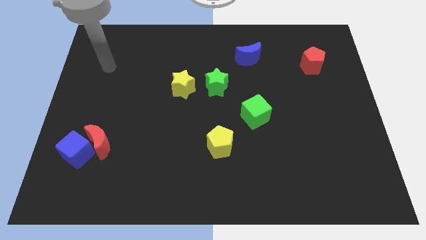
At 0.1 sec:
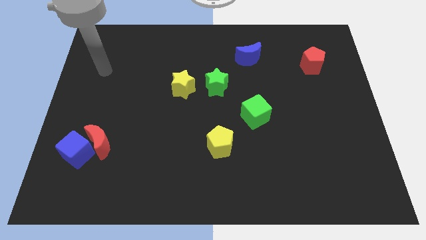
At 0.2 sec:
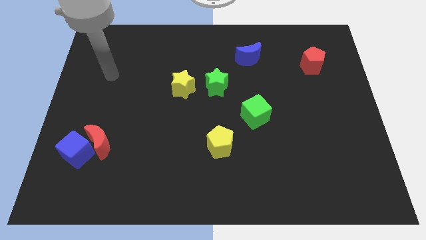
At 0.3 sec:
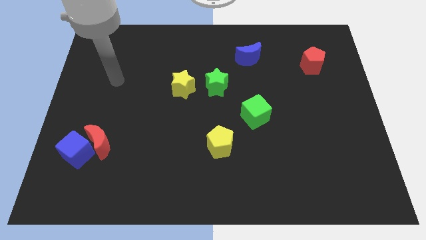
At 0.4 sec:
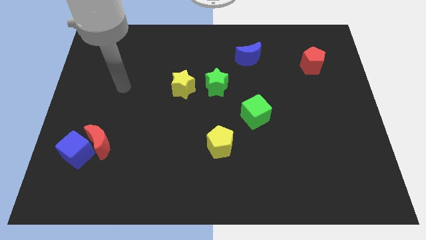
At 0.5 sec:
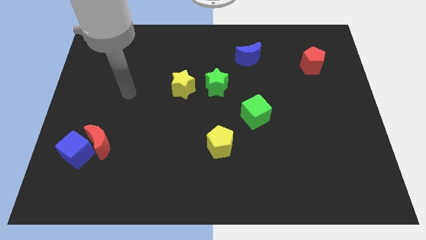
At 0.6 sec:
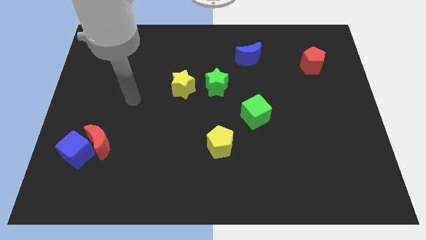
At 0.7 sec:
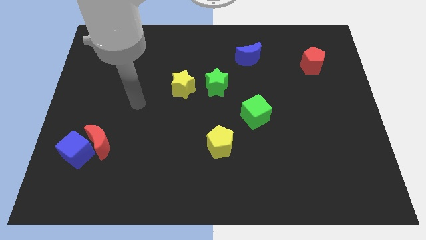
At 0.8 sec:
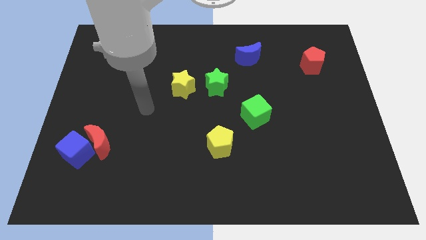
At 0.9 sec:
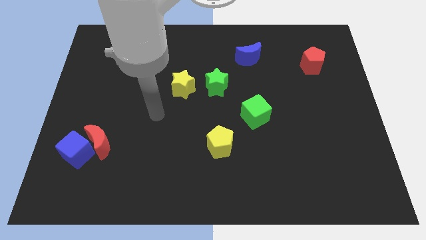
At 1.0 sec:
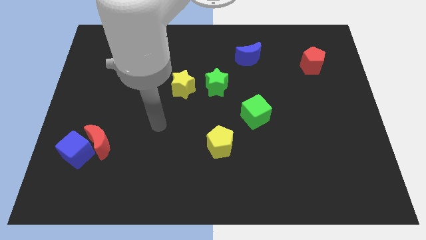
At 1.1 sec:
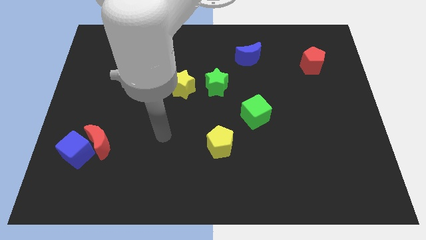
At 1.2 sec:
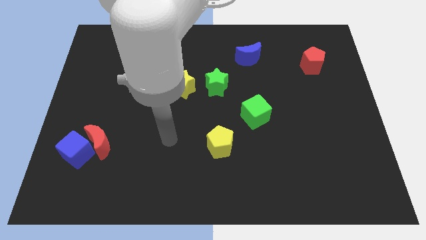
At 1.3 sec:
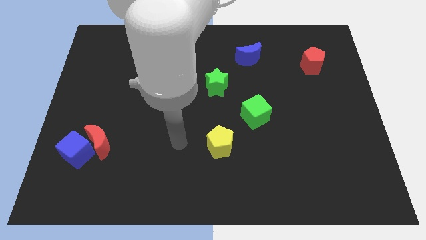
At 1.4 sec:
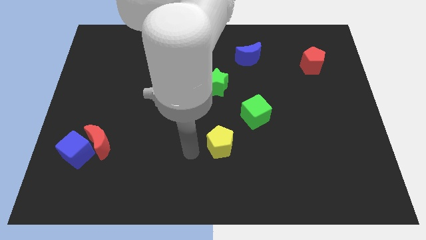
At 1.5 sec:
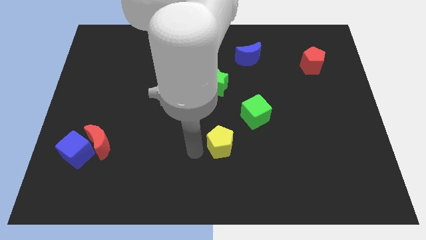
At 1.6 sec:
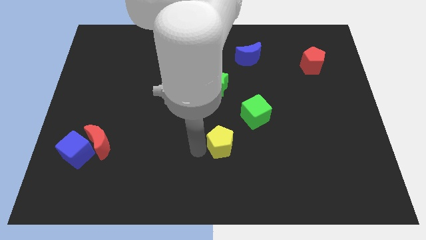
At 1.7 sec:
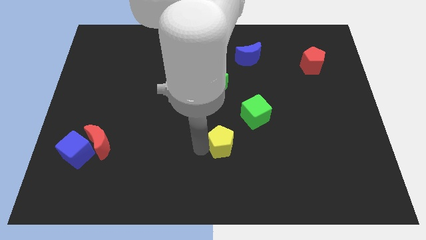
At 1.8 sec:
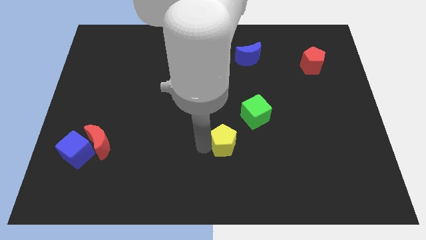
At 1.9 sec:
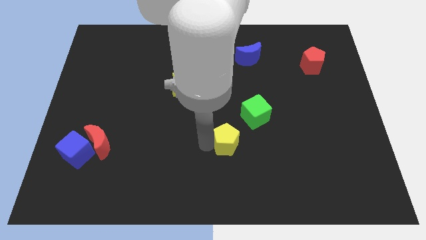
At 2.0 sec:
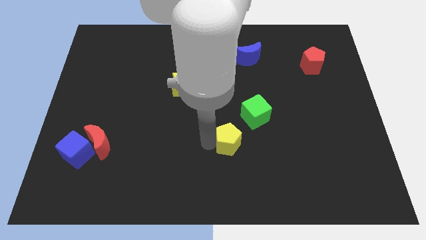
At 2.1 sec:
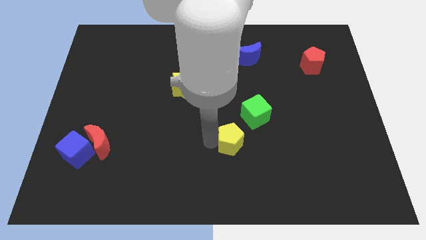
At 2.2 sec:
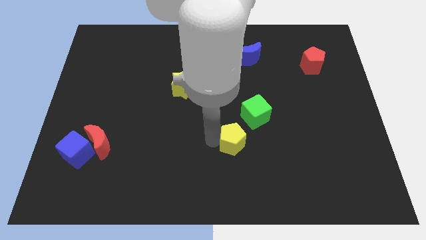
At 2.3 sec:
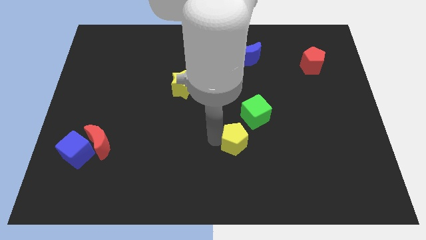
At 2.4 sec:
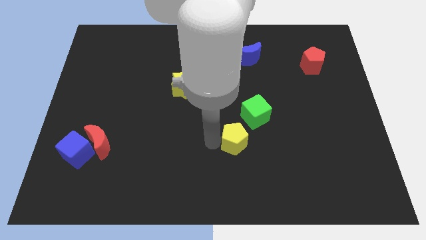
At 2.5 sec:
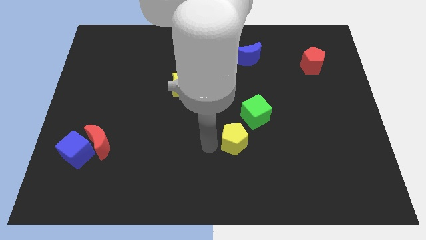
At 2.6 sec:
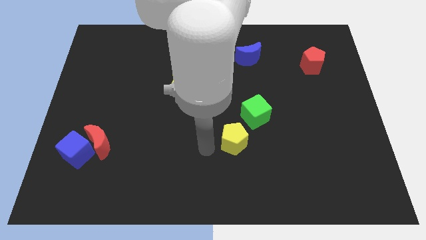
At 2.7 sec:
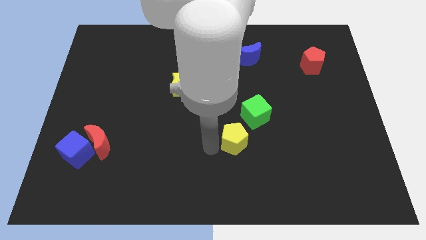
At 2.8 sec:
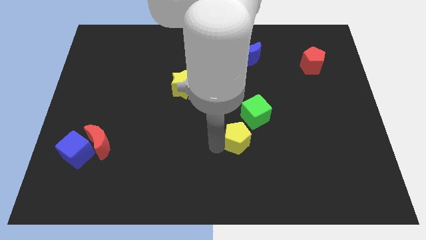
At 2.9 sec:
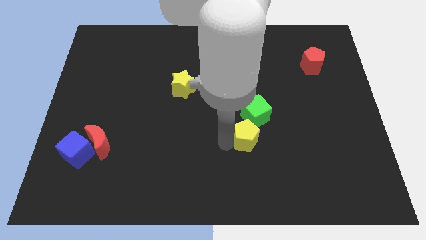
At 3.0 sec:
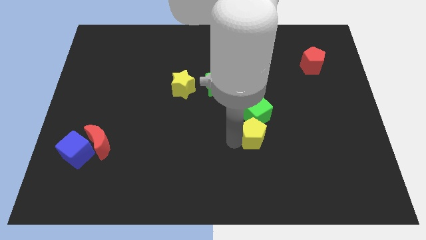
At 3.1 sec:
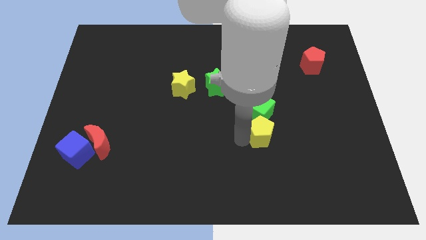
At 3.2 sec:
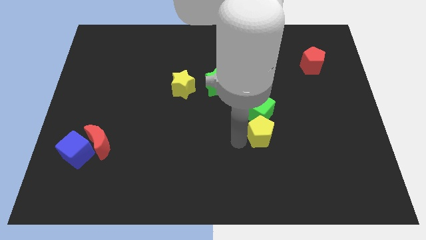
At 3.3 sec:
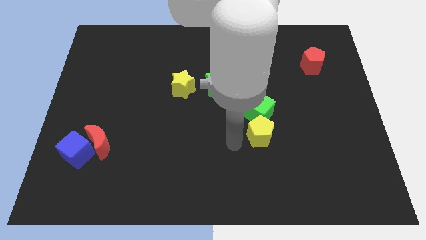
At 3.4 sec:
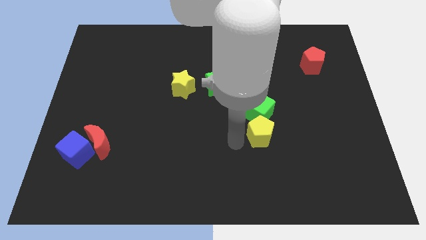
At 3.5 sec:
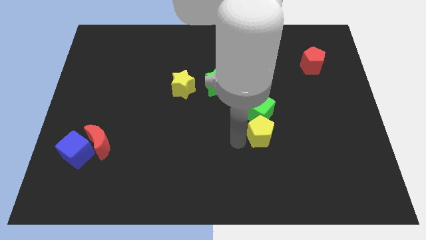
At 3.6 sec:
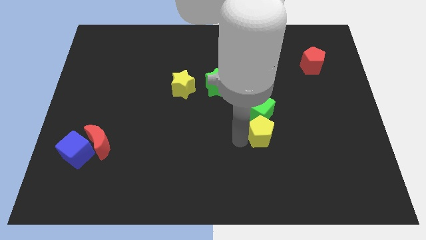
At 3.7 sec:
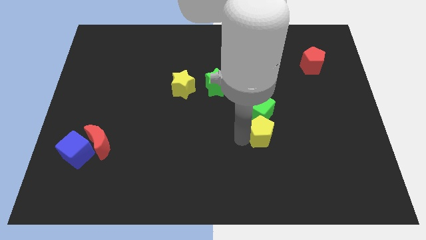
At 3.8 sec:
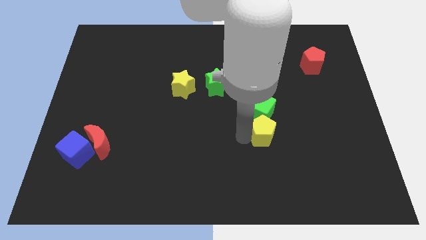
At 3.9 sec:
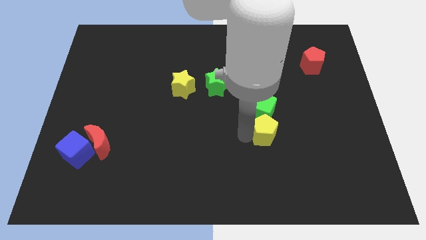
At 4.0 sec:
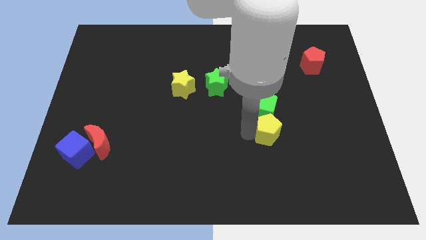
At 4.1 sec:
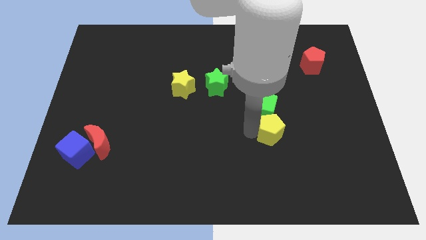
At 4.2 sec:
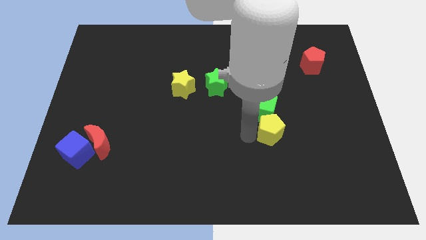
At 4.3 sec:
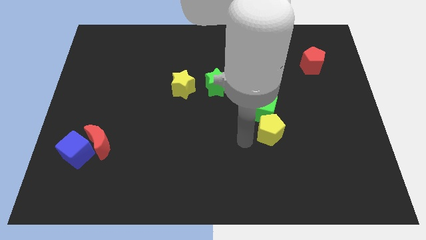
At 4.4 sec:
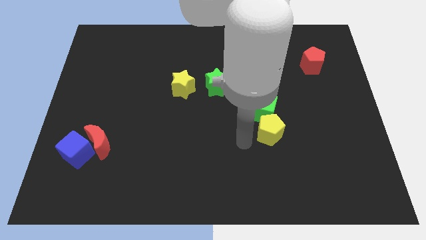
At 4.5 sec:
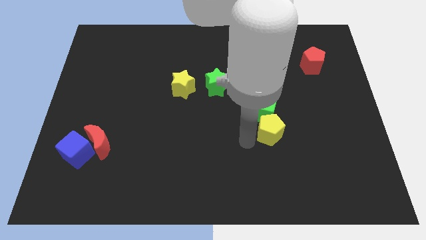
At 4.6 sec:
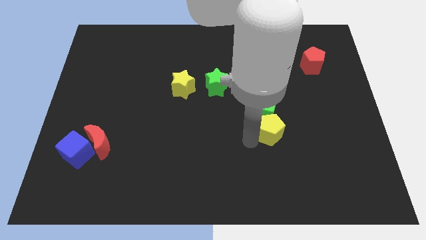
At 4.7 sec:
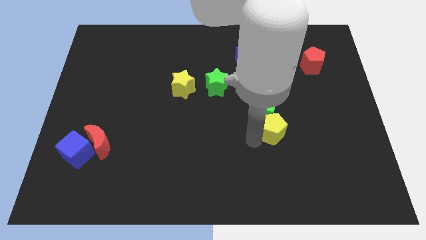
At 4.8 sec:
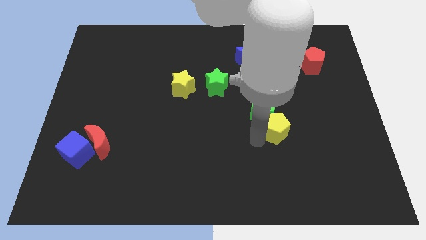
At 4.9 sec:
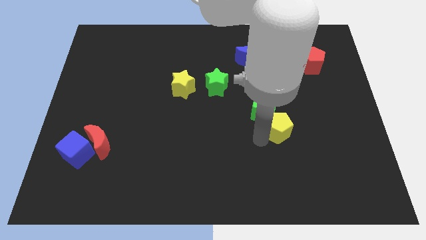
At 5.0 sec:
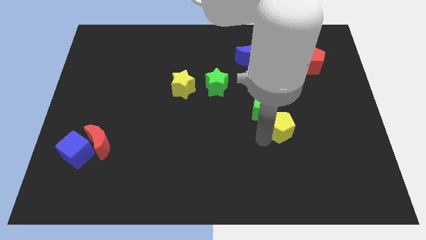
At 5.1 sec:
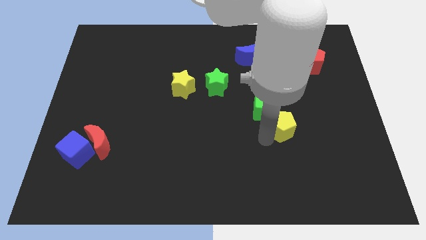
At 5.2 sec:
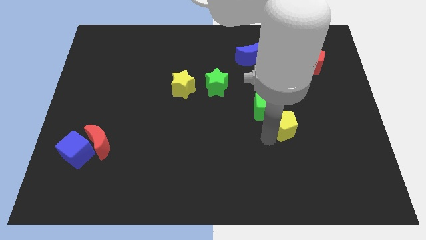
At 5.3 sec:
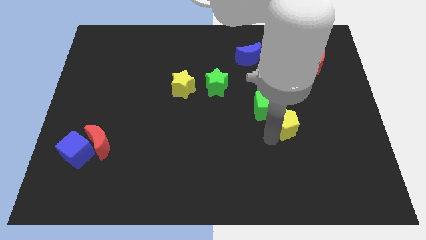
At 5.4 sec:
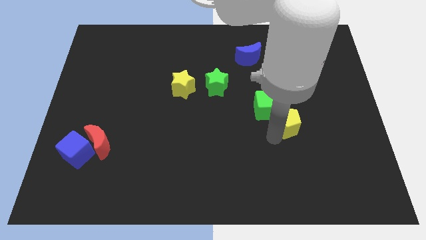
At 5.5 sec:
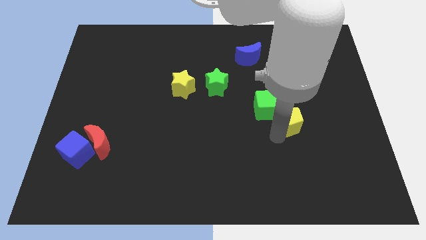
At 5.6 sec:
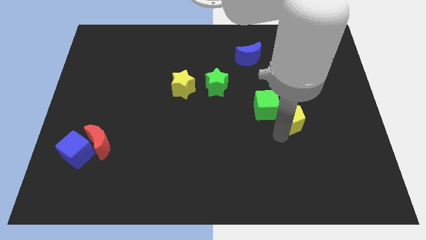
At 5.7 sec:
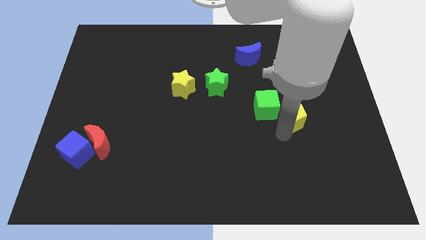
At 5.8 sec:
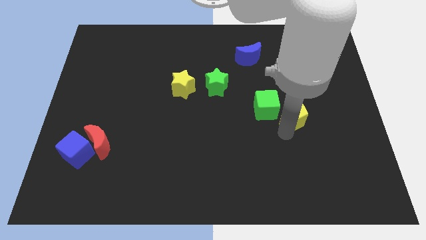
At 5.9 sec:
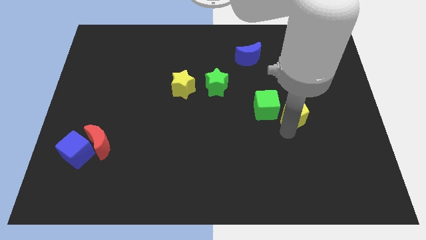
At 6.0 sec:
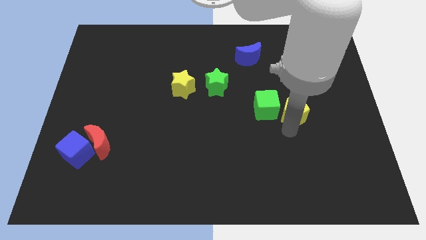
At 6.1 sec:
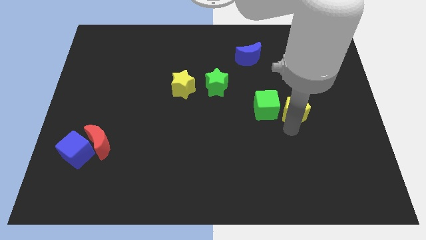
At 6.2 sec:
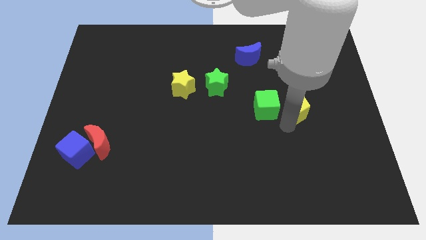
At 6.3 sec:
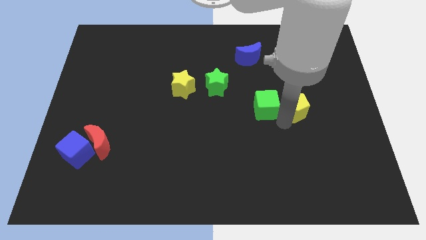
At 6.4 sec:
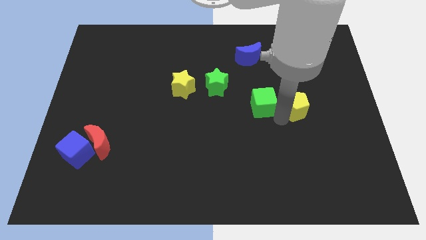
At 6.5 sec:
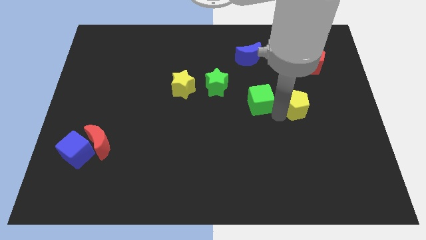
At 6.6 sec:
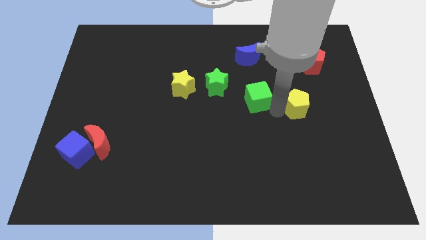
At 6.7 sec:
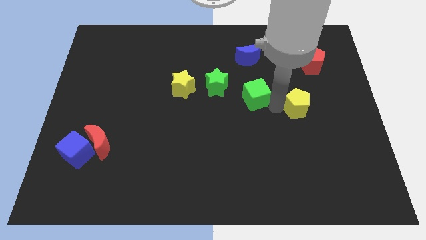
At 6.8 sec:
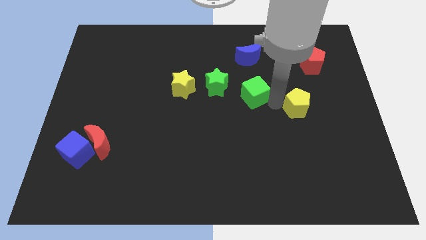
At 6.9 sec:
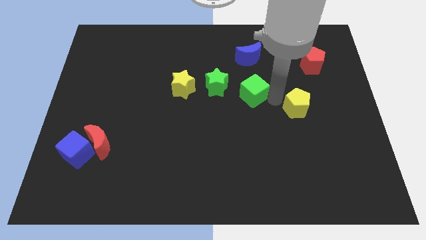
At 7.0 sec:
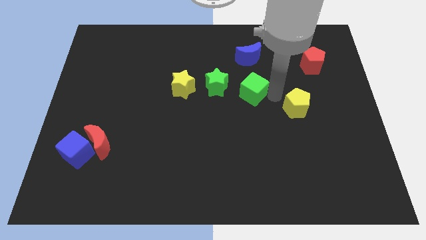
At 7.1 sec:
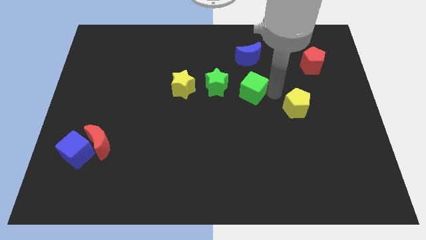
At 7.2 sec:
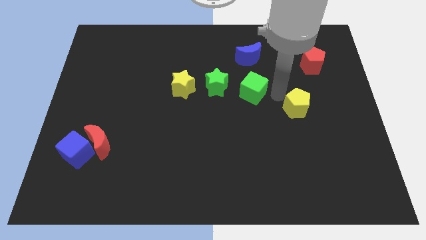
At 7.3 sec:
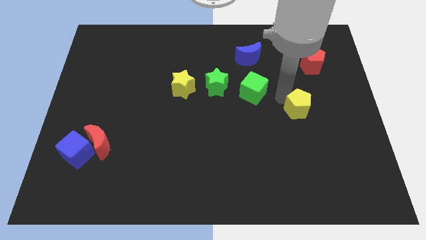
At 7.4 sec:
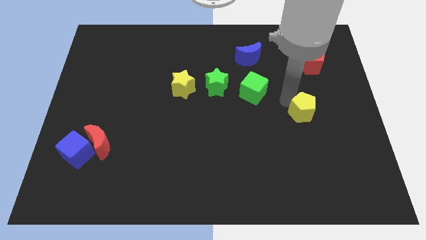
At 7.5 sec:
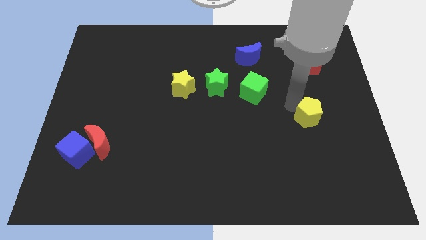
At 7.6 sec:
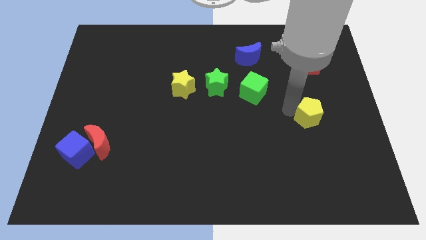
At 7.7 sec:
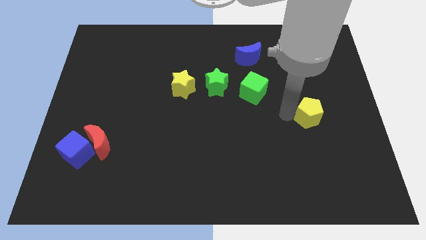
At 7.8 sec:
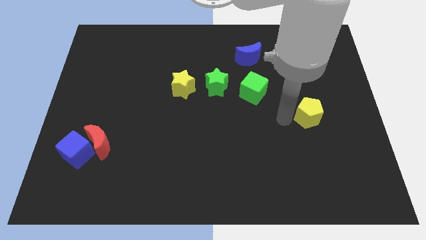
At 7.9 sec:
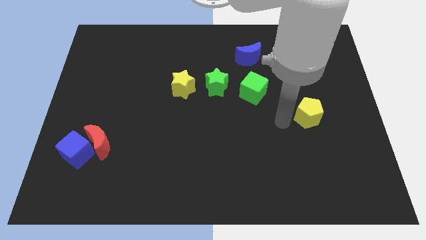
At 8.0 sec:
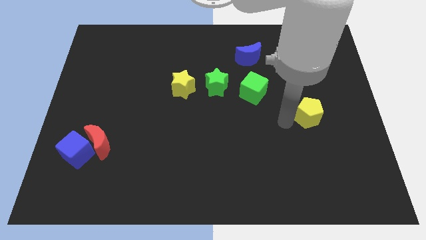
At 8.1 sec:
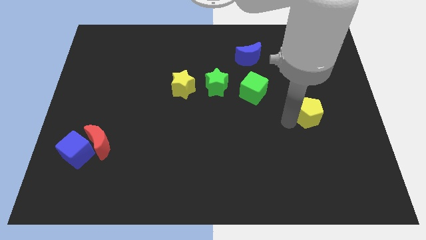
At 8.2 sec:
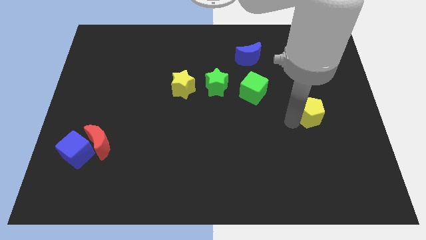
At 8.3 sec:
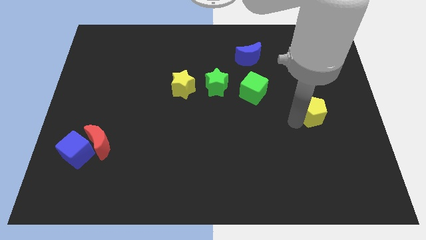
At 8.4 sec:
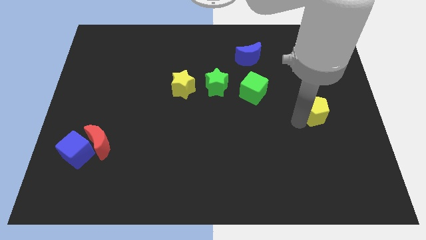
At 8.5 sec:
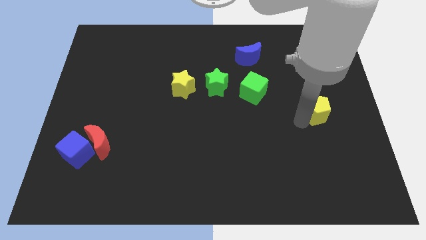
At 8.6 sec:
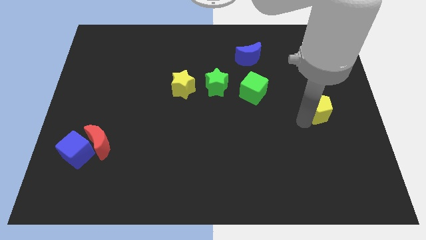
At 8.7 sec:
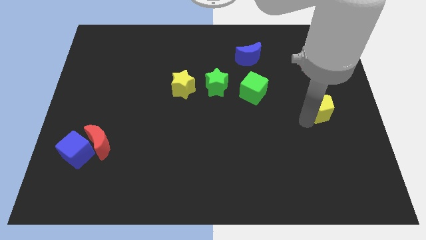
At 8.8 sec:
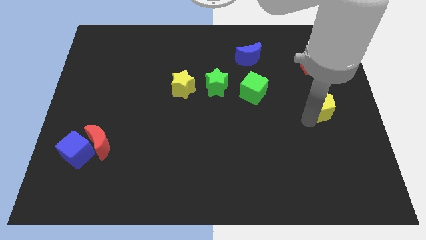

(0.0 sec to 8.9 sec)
slide the yellow pentagon to the center right
